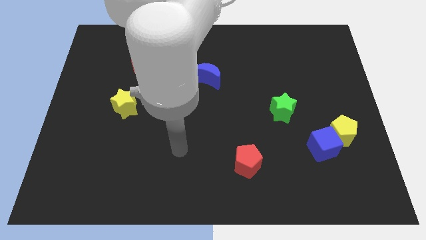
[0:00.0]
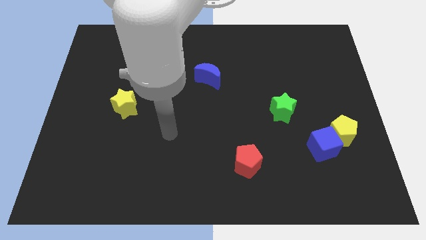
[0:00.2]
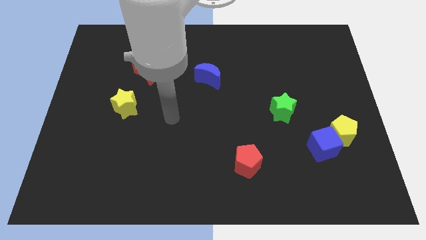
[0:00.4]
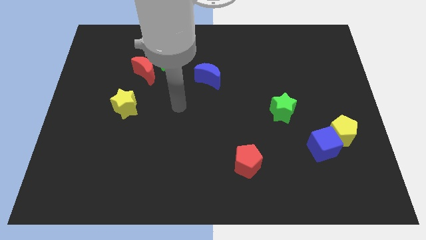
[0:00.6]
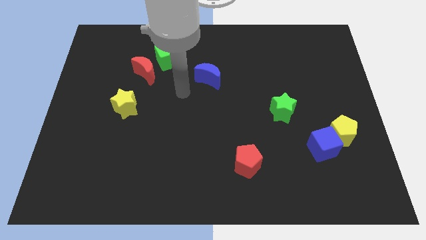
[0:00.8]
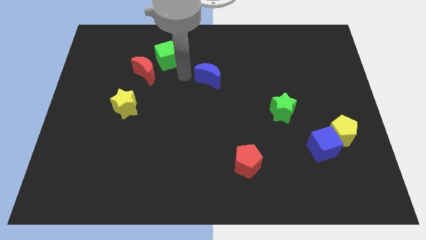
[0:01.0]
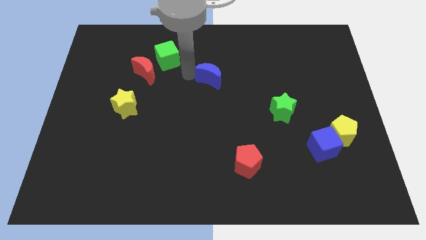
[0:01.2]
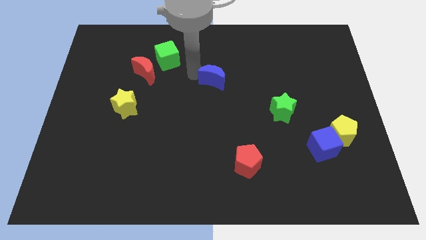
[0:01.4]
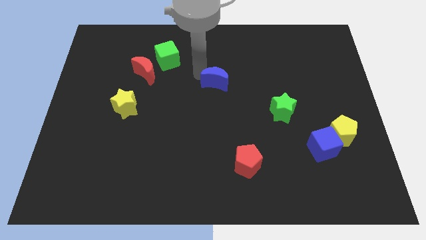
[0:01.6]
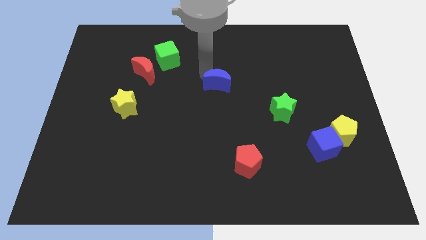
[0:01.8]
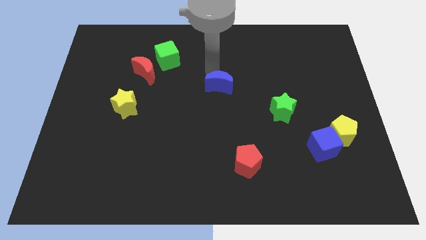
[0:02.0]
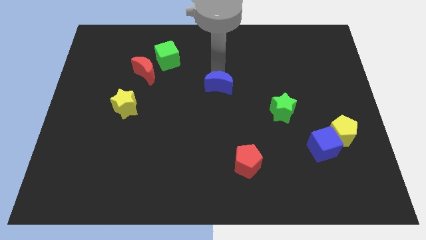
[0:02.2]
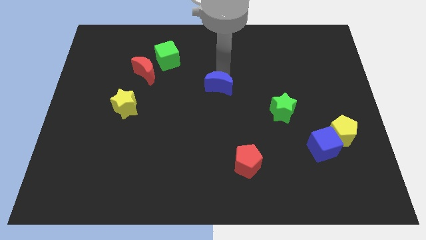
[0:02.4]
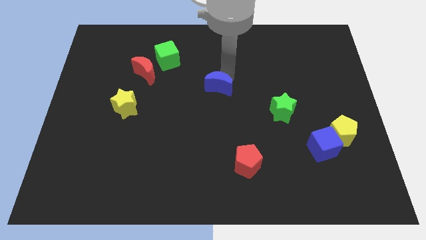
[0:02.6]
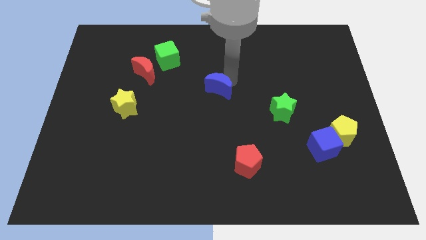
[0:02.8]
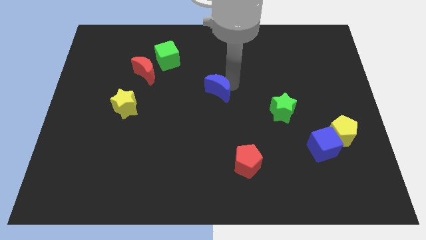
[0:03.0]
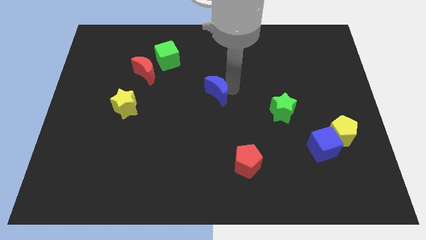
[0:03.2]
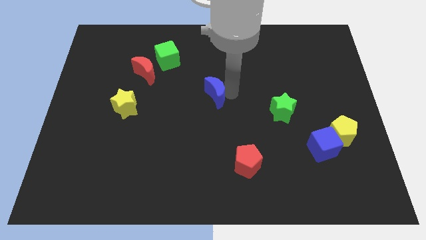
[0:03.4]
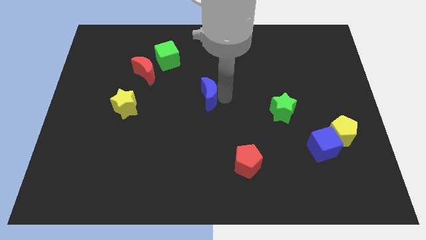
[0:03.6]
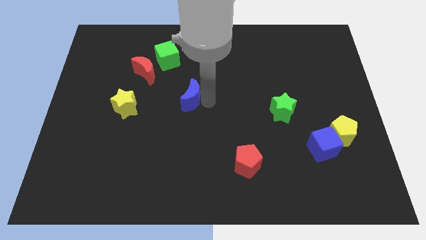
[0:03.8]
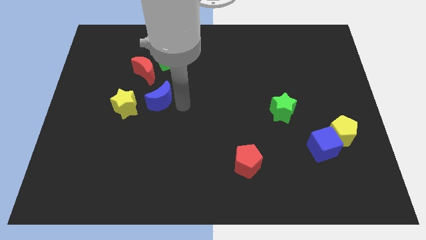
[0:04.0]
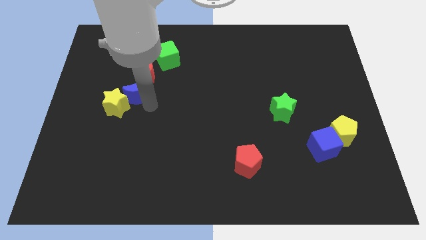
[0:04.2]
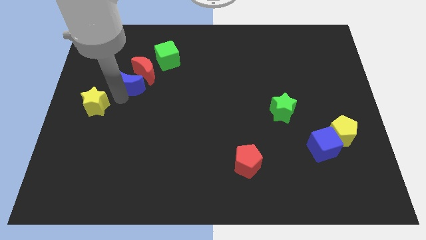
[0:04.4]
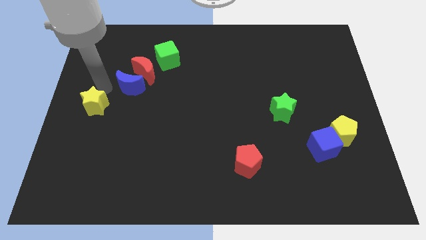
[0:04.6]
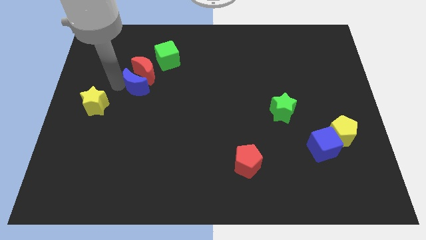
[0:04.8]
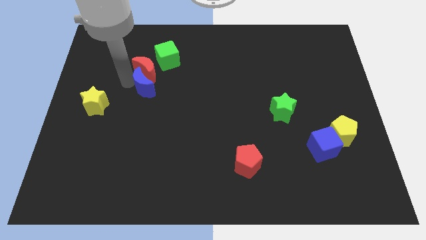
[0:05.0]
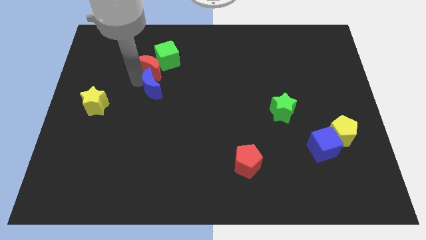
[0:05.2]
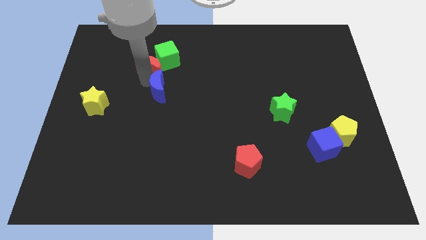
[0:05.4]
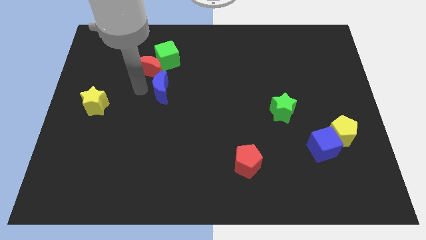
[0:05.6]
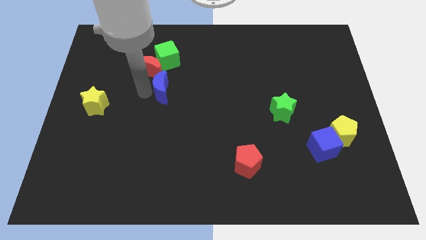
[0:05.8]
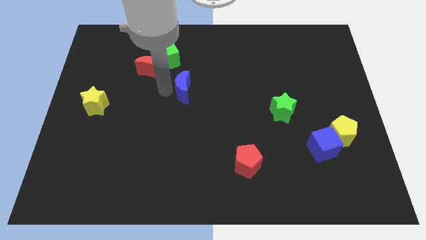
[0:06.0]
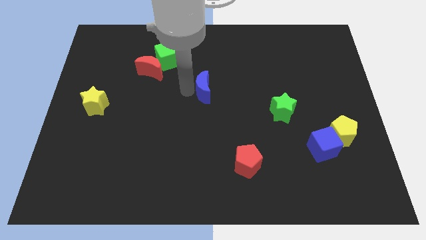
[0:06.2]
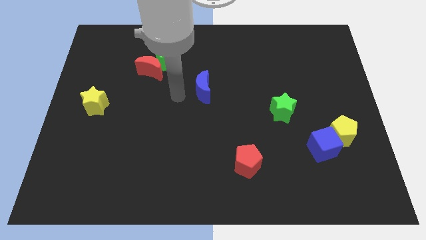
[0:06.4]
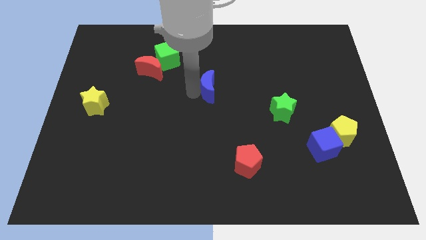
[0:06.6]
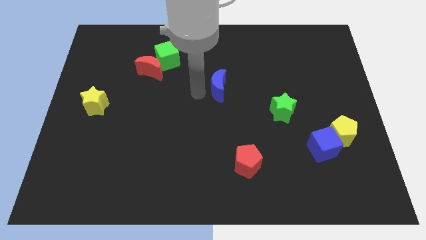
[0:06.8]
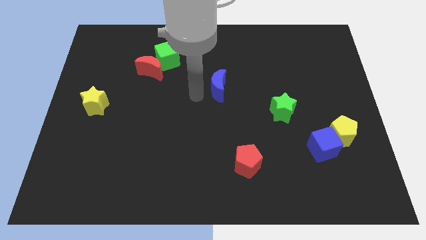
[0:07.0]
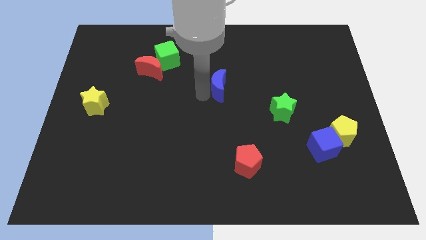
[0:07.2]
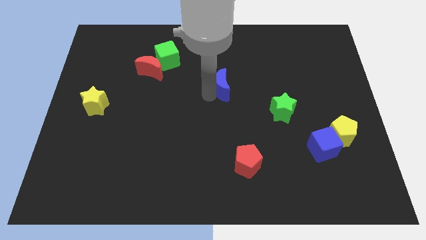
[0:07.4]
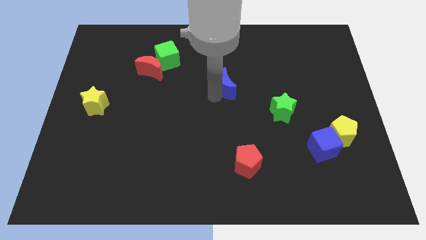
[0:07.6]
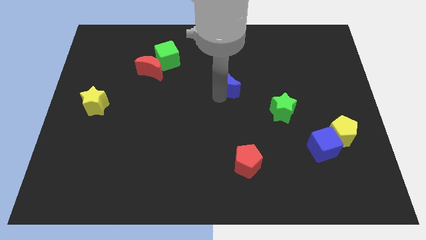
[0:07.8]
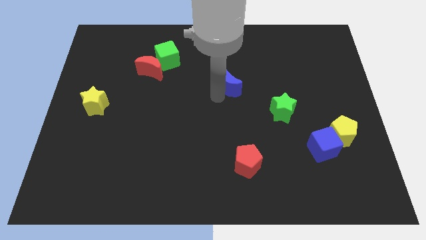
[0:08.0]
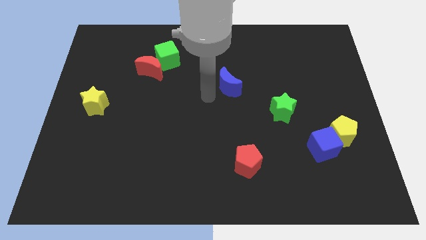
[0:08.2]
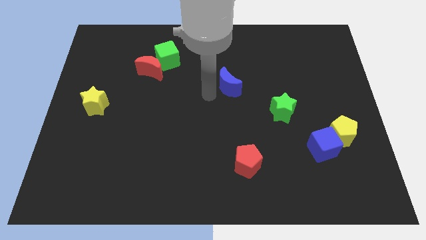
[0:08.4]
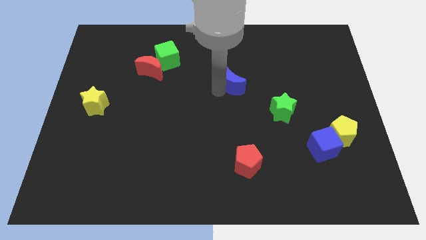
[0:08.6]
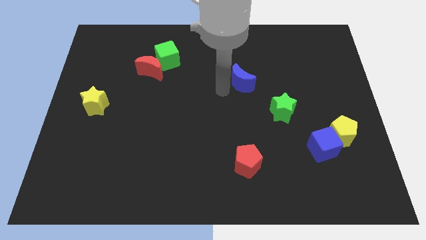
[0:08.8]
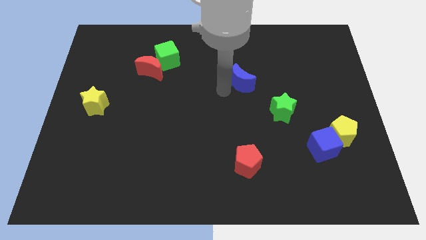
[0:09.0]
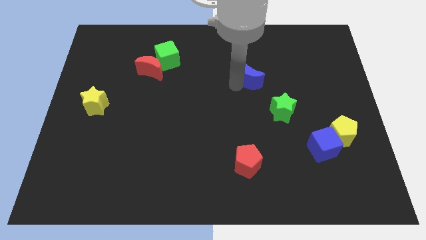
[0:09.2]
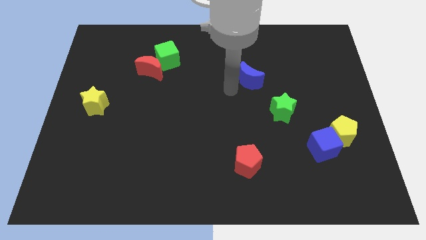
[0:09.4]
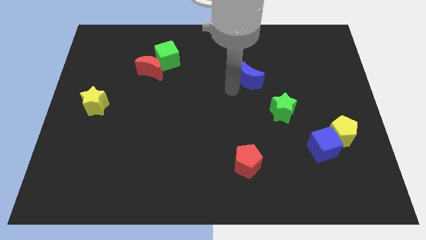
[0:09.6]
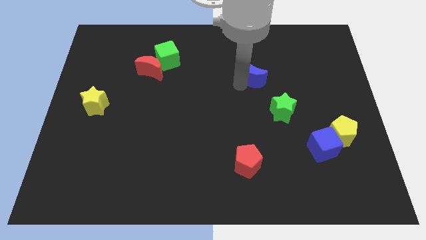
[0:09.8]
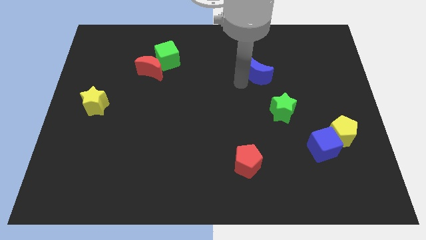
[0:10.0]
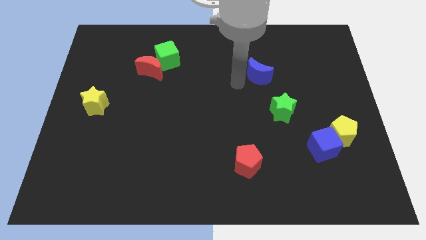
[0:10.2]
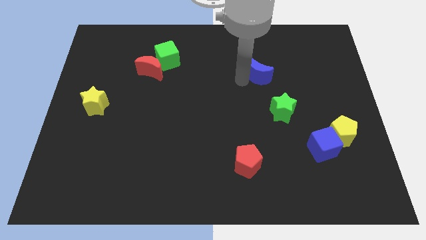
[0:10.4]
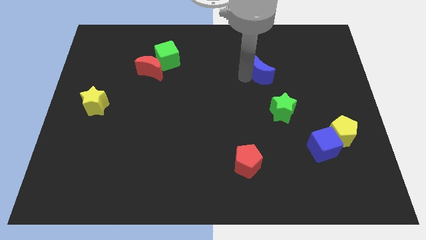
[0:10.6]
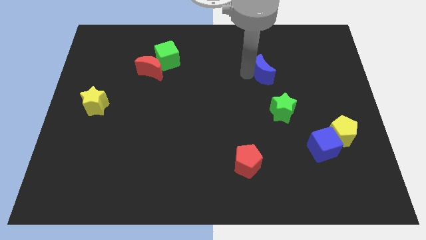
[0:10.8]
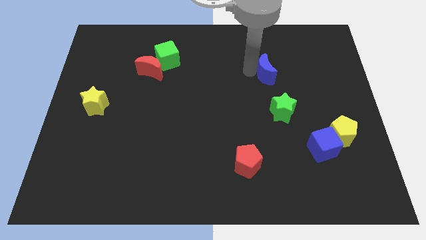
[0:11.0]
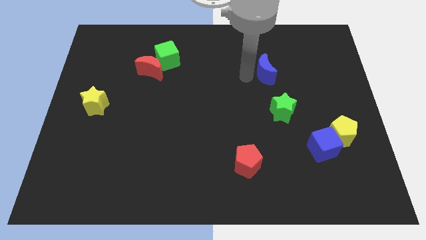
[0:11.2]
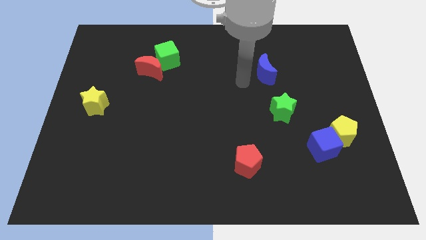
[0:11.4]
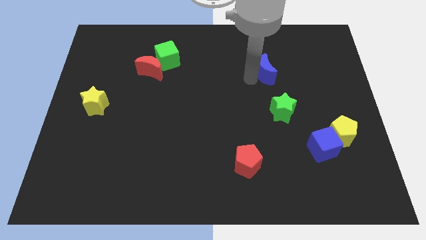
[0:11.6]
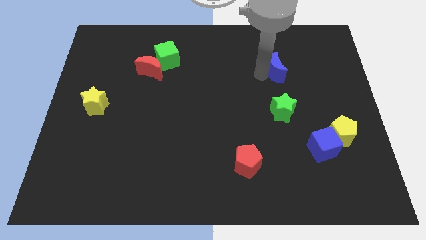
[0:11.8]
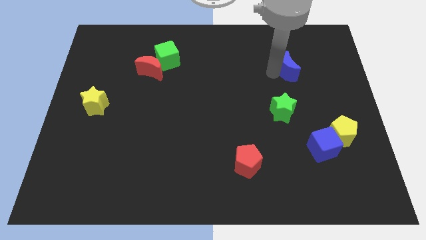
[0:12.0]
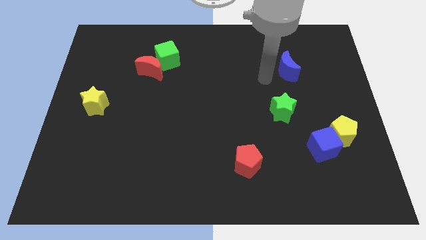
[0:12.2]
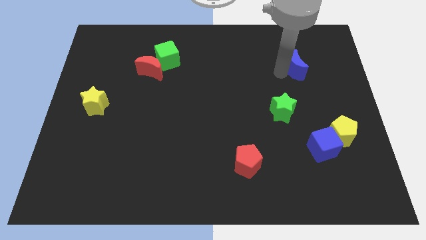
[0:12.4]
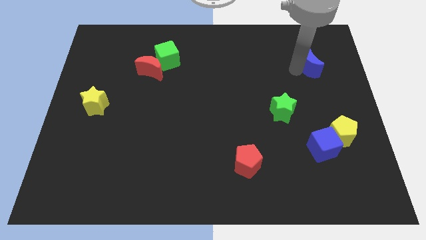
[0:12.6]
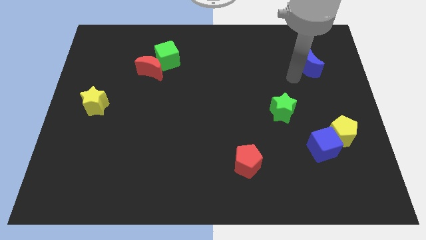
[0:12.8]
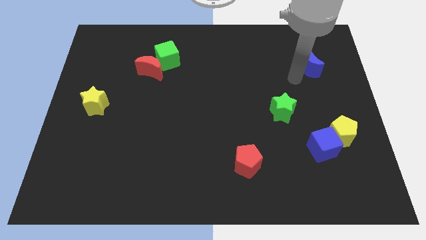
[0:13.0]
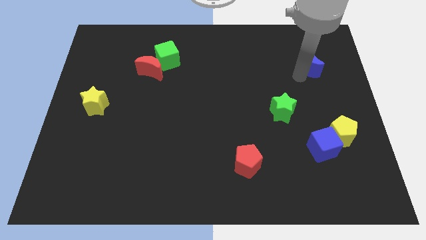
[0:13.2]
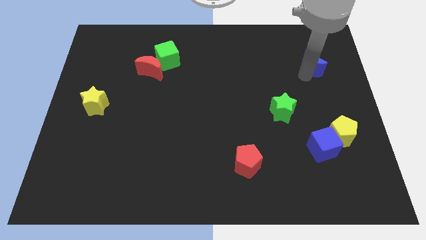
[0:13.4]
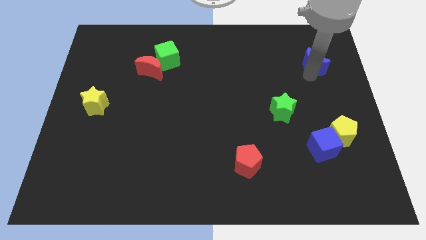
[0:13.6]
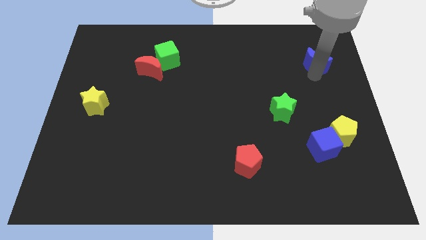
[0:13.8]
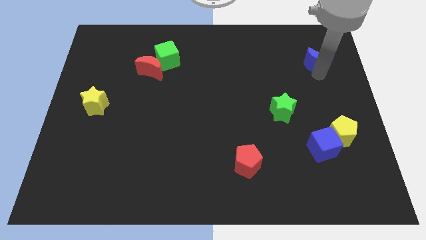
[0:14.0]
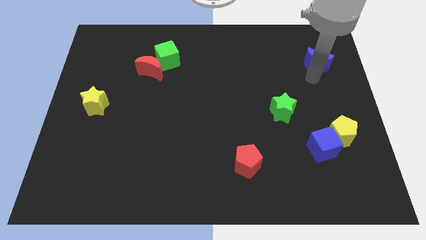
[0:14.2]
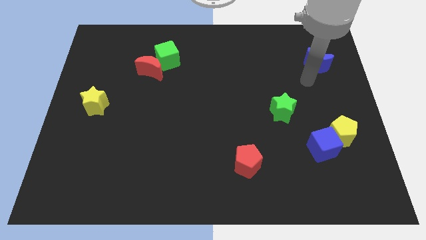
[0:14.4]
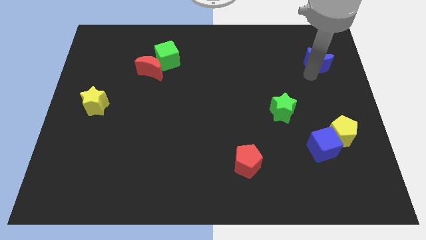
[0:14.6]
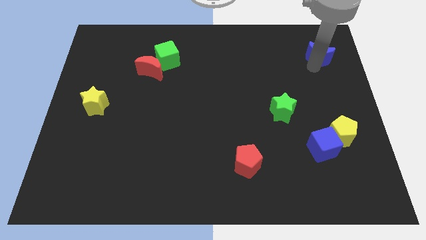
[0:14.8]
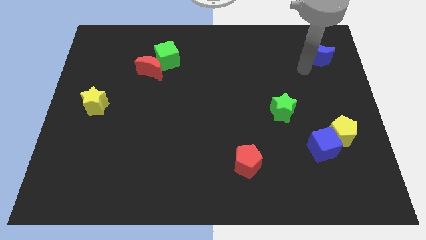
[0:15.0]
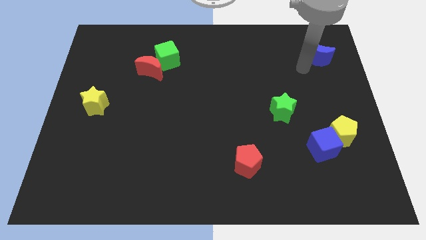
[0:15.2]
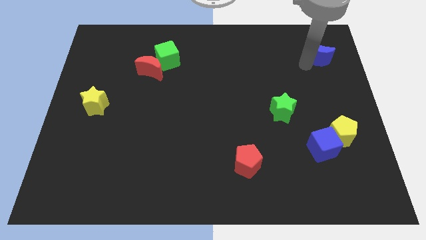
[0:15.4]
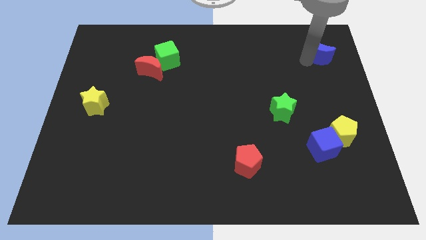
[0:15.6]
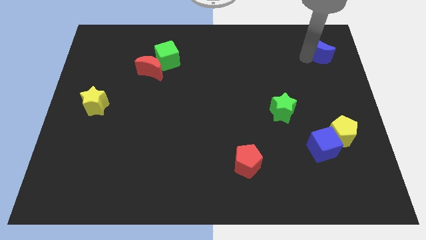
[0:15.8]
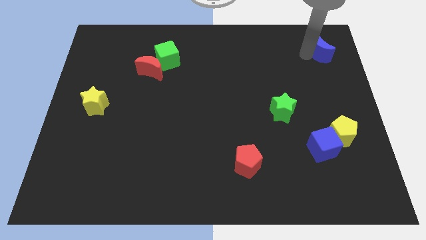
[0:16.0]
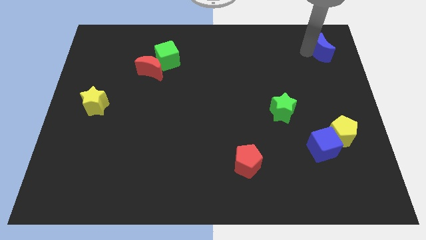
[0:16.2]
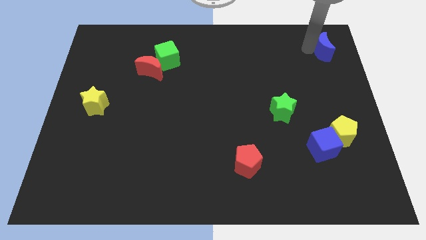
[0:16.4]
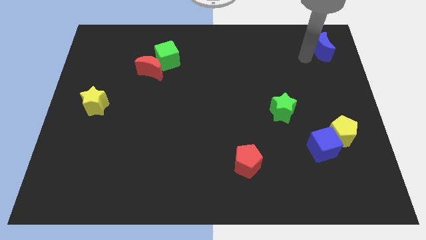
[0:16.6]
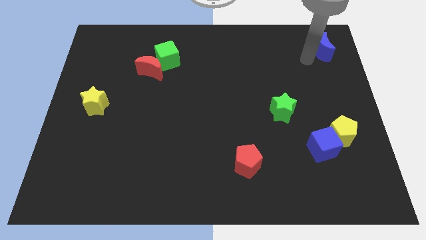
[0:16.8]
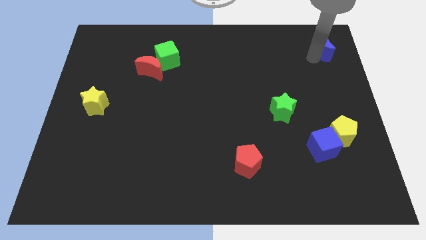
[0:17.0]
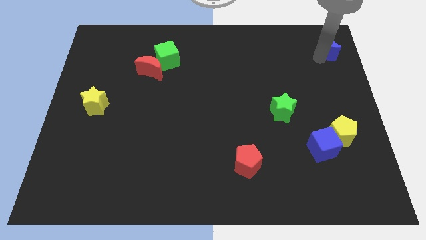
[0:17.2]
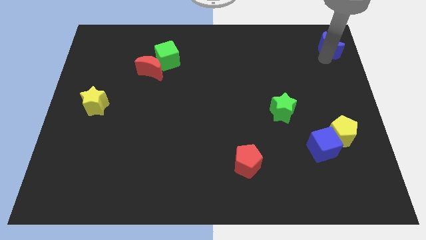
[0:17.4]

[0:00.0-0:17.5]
slide the blue moon to the top right corner
